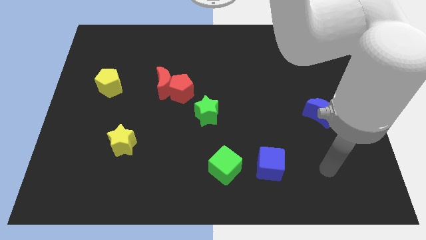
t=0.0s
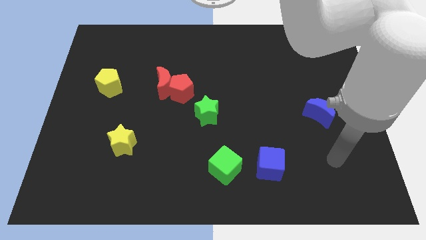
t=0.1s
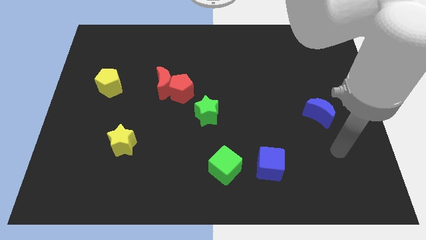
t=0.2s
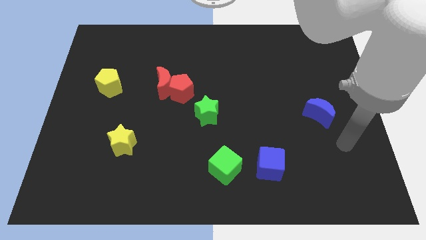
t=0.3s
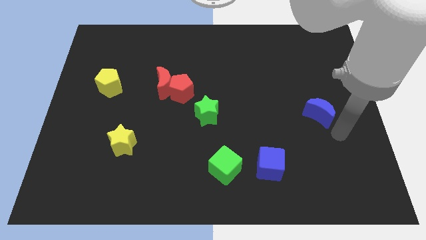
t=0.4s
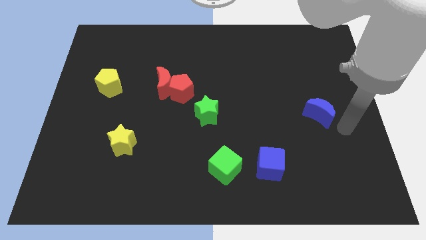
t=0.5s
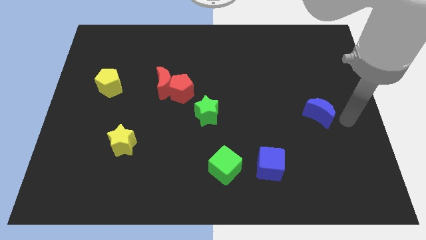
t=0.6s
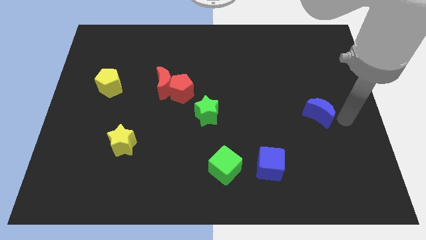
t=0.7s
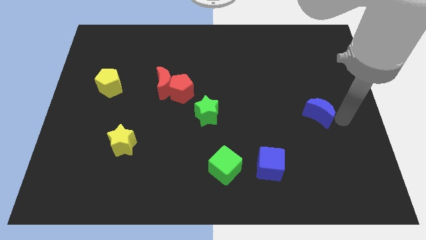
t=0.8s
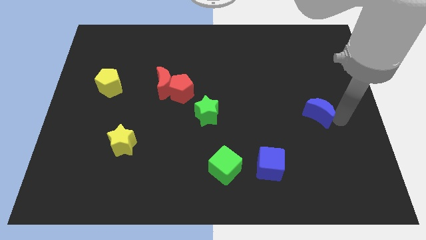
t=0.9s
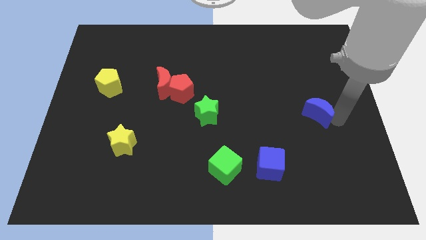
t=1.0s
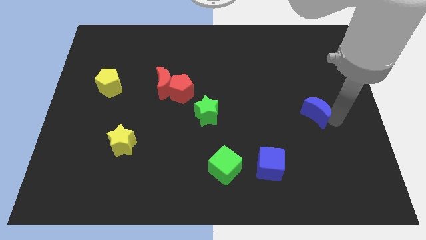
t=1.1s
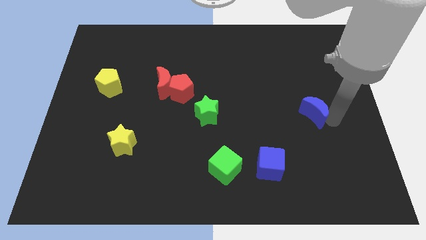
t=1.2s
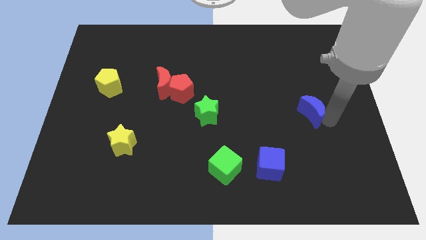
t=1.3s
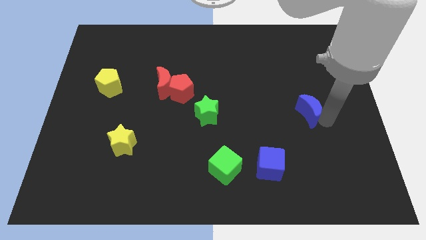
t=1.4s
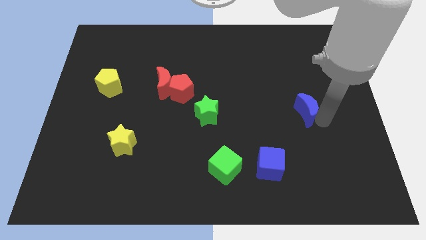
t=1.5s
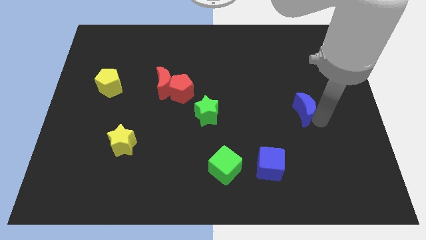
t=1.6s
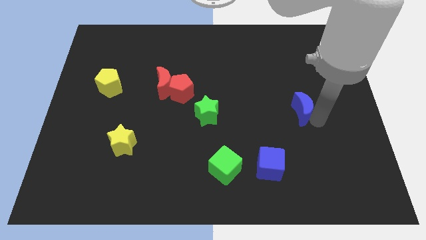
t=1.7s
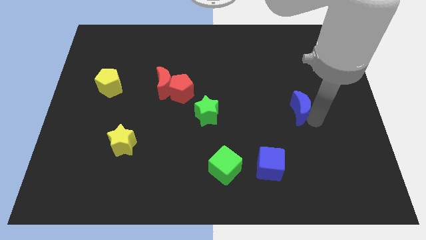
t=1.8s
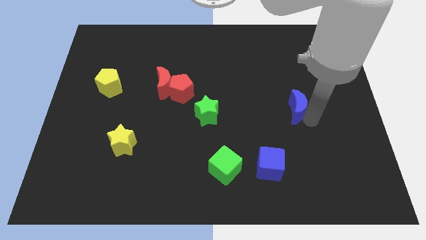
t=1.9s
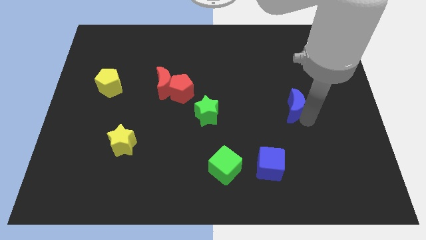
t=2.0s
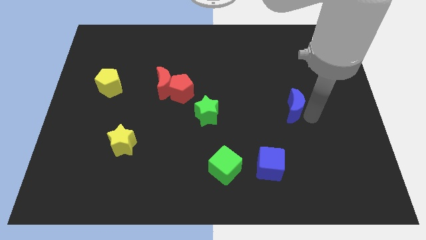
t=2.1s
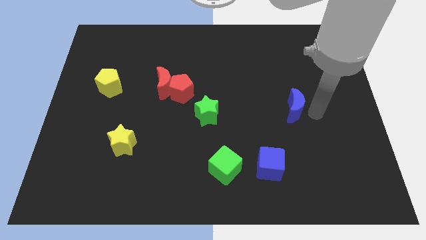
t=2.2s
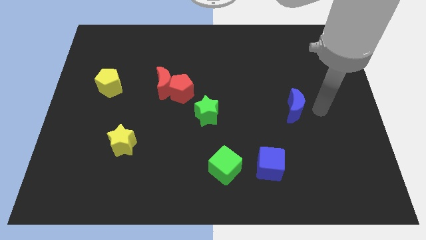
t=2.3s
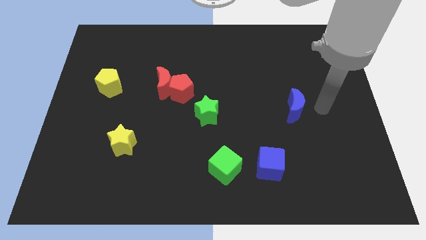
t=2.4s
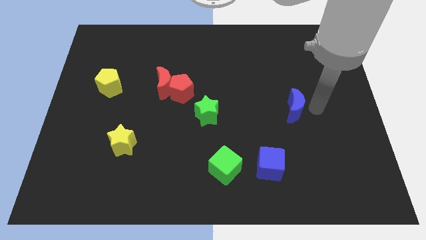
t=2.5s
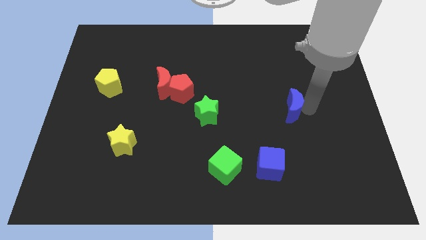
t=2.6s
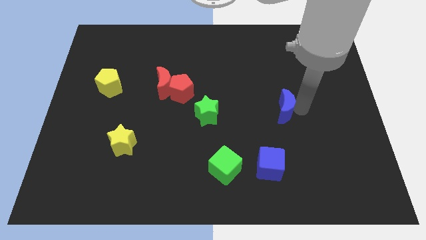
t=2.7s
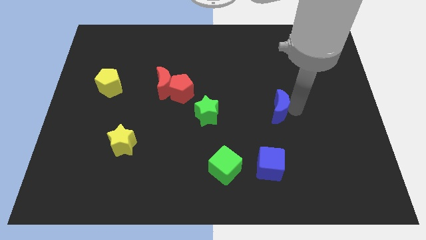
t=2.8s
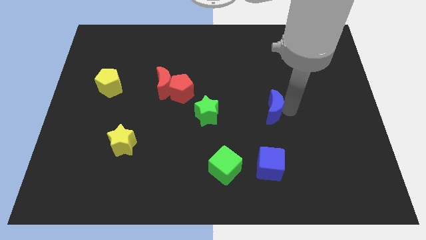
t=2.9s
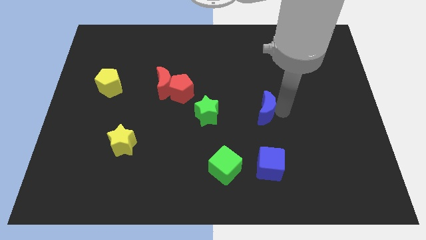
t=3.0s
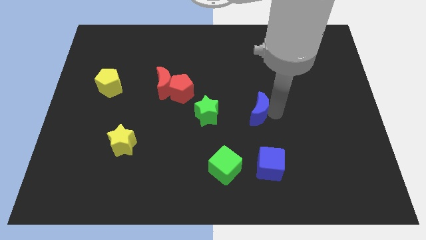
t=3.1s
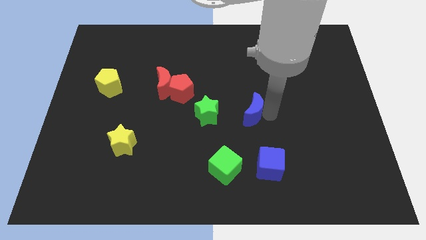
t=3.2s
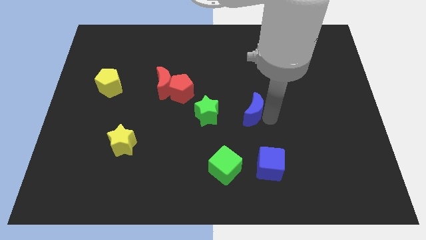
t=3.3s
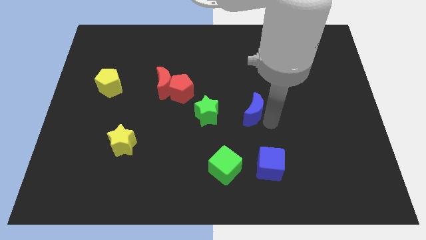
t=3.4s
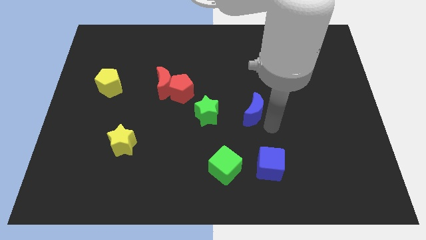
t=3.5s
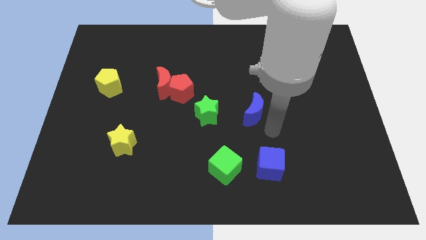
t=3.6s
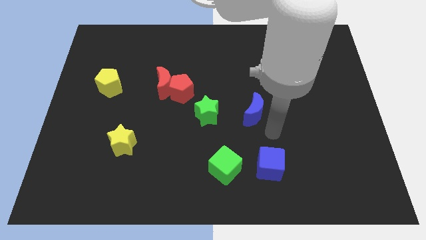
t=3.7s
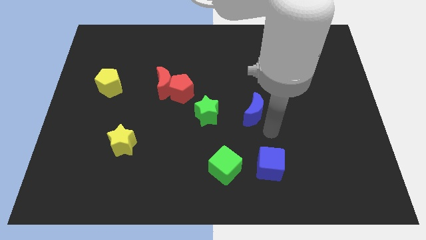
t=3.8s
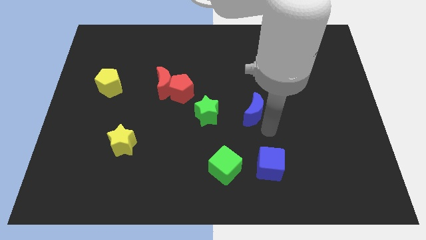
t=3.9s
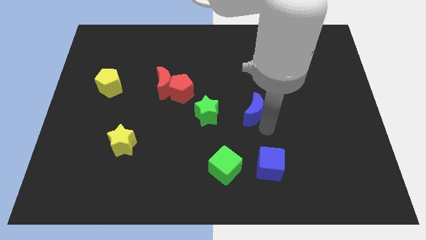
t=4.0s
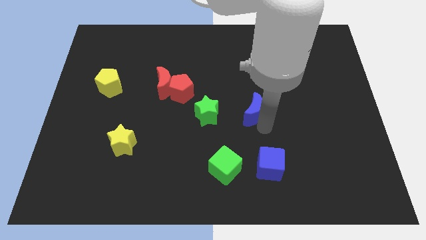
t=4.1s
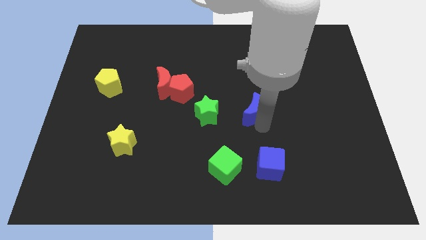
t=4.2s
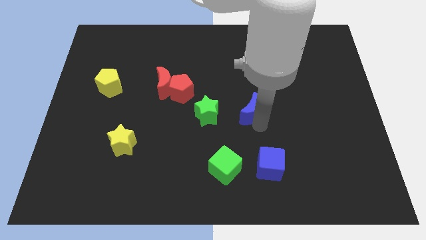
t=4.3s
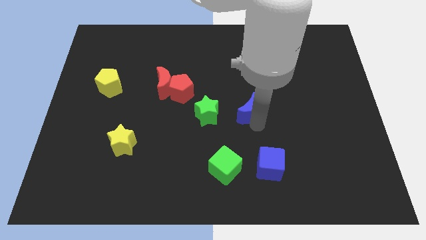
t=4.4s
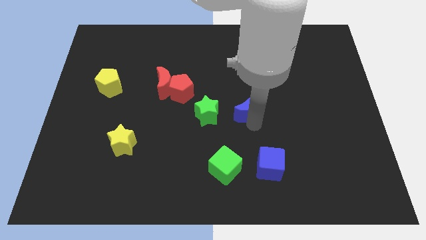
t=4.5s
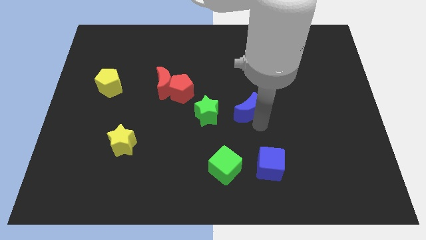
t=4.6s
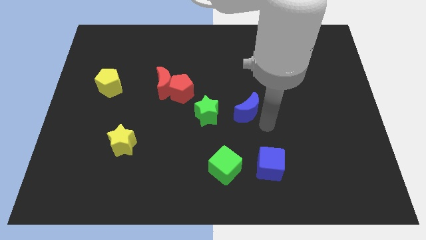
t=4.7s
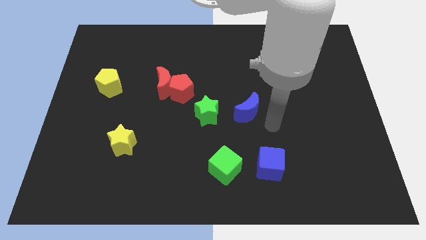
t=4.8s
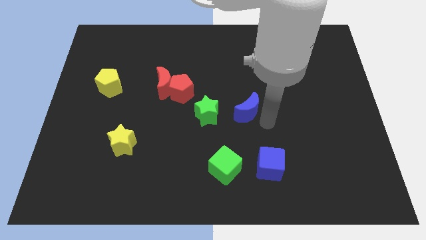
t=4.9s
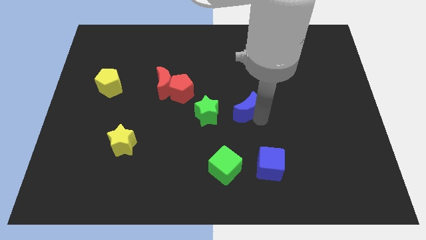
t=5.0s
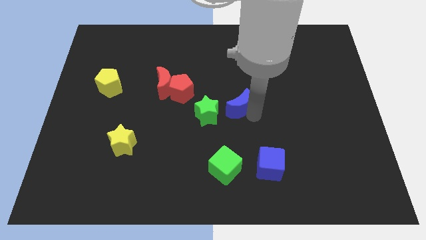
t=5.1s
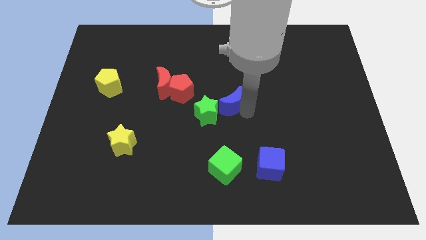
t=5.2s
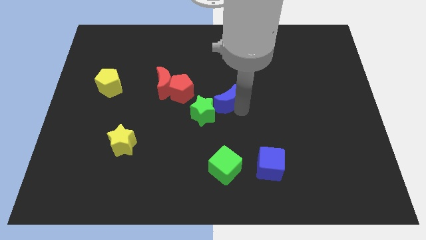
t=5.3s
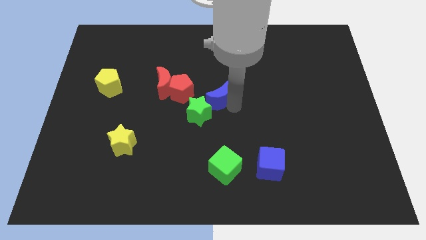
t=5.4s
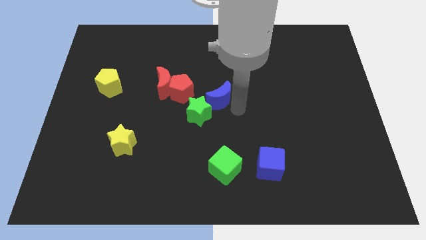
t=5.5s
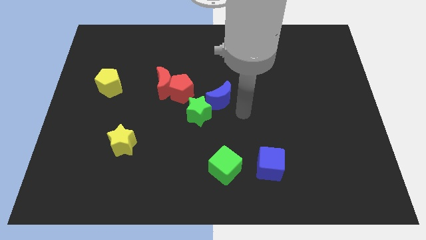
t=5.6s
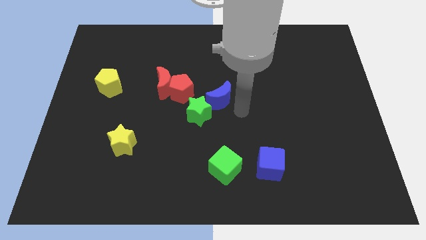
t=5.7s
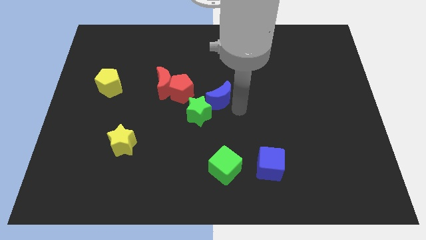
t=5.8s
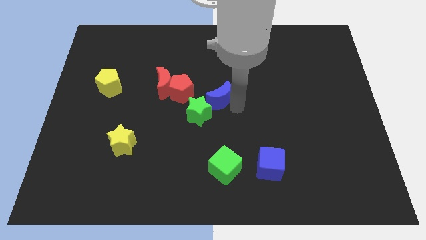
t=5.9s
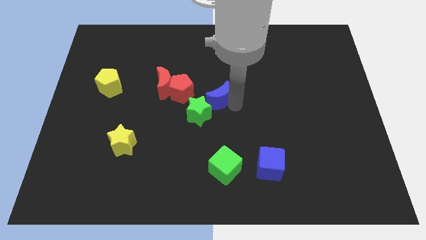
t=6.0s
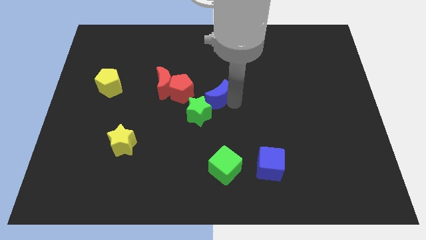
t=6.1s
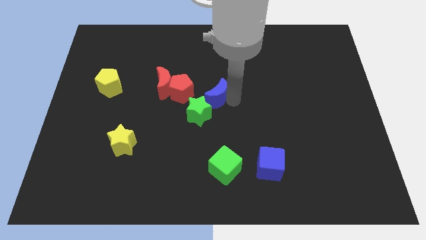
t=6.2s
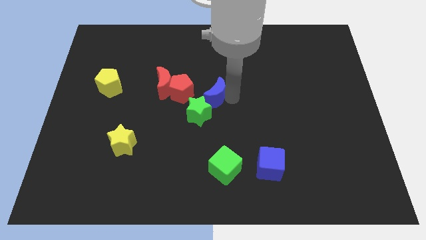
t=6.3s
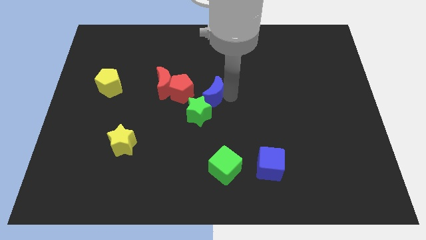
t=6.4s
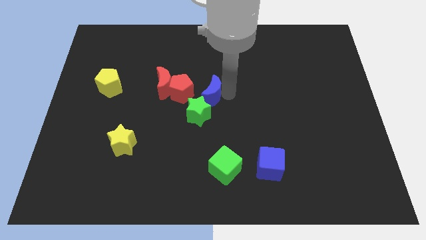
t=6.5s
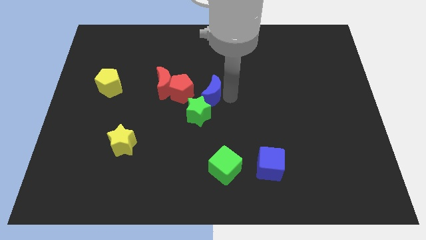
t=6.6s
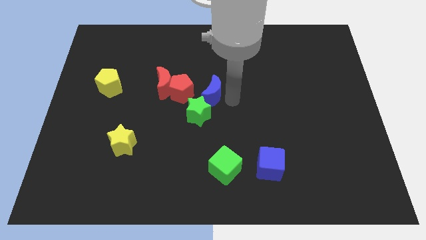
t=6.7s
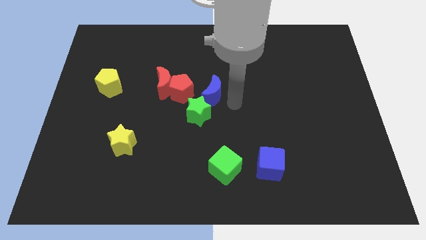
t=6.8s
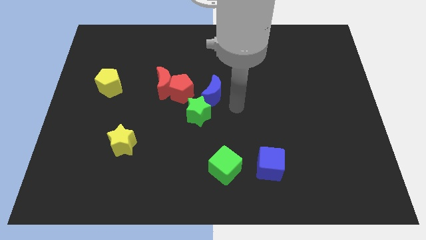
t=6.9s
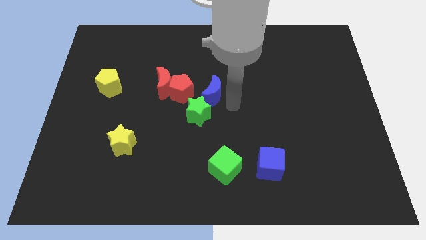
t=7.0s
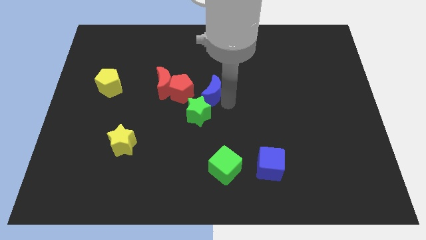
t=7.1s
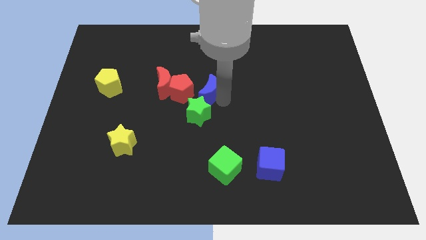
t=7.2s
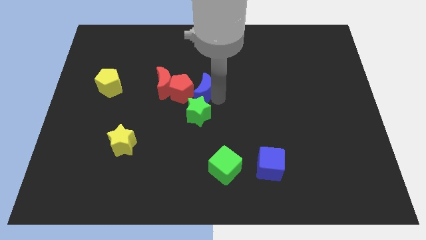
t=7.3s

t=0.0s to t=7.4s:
push the blue moon close to the red pentagon
